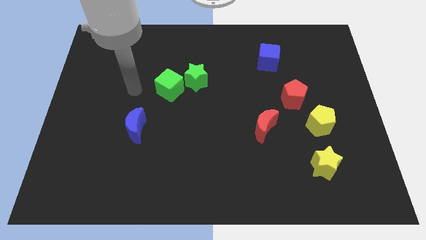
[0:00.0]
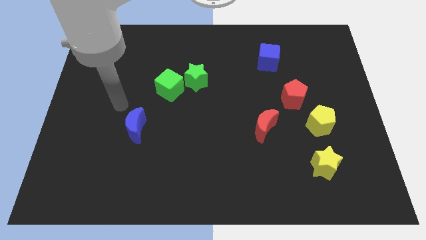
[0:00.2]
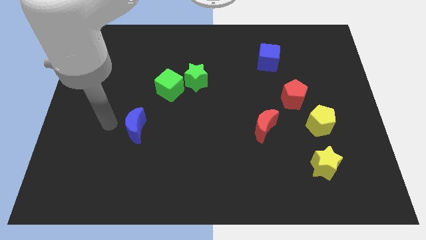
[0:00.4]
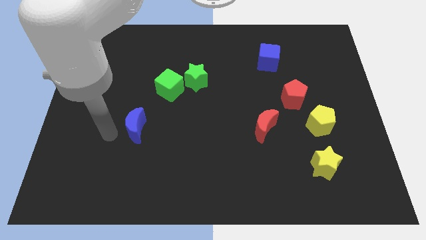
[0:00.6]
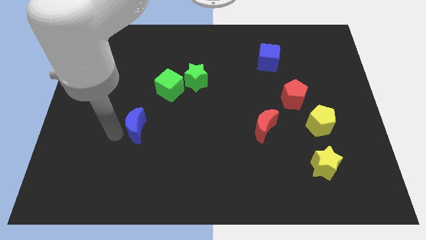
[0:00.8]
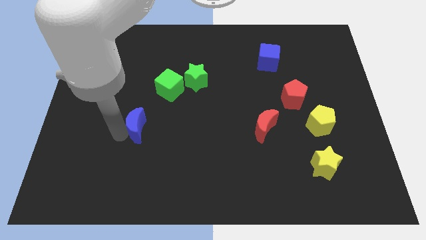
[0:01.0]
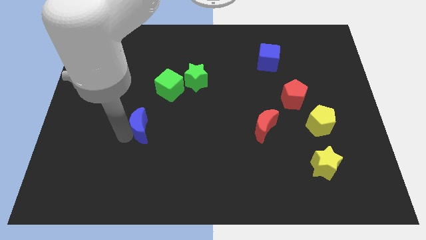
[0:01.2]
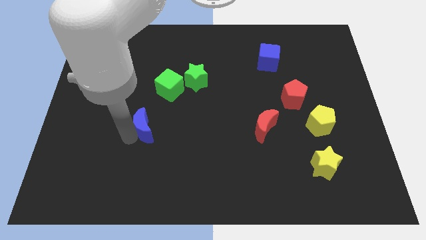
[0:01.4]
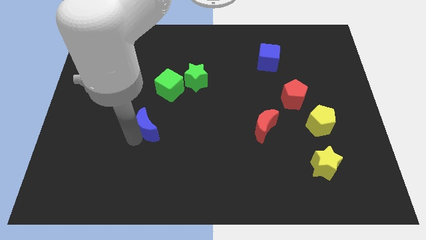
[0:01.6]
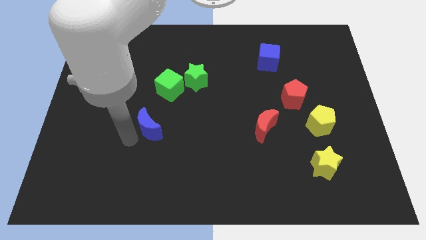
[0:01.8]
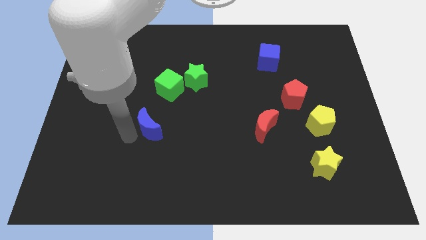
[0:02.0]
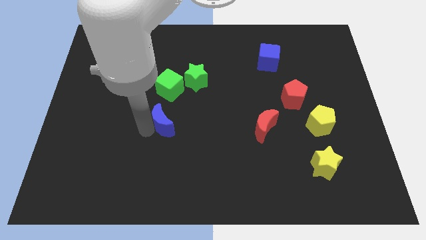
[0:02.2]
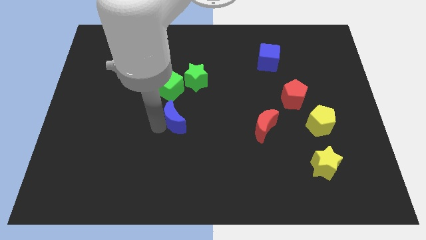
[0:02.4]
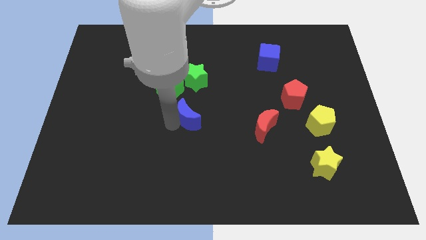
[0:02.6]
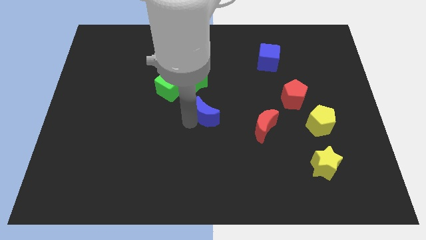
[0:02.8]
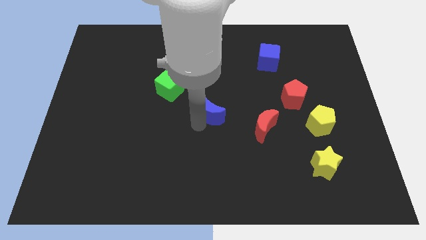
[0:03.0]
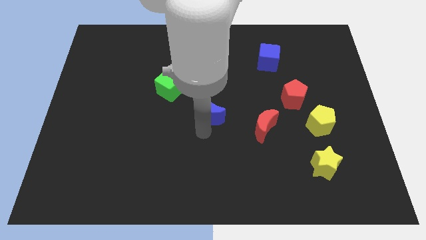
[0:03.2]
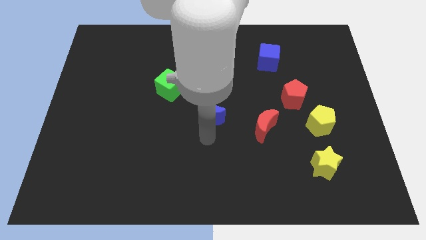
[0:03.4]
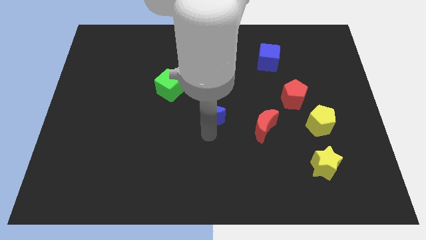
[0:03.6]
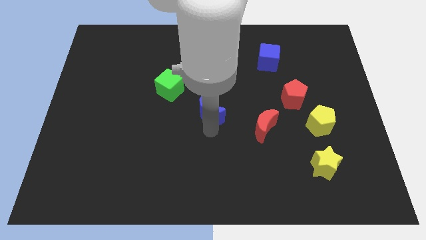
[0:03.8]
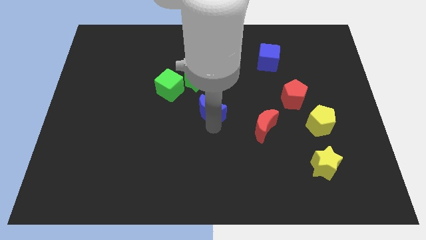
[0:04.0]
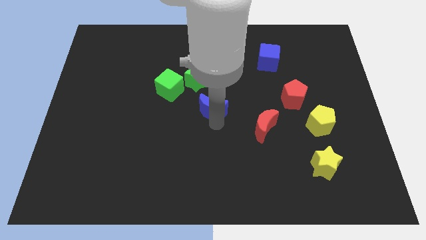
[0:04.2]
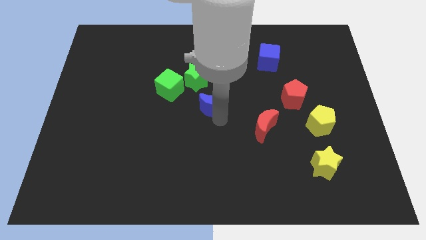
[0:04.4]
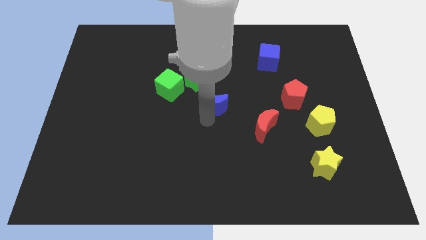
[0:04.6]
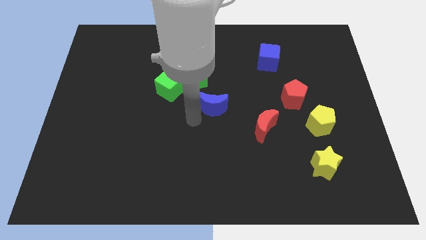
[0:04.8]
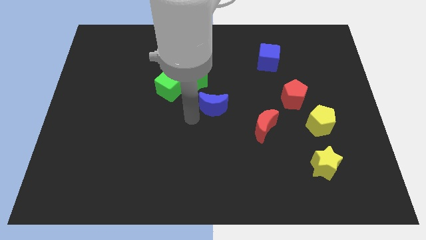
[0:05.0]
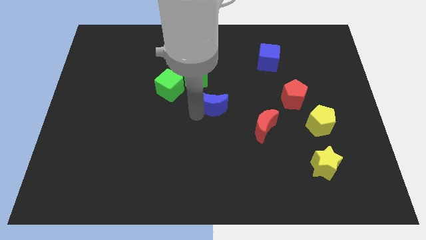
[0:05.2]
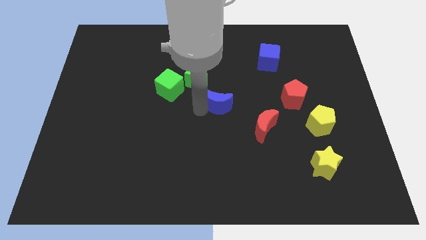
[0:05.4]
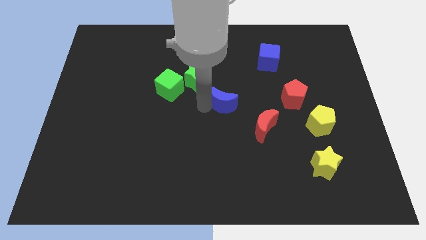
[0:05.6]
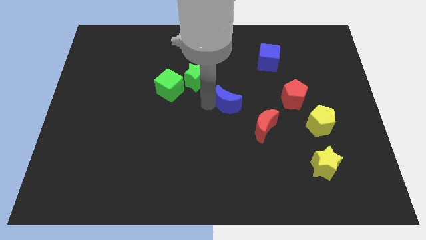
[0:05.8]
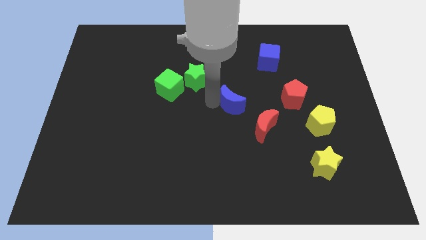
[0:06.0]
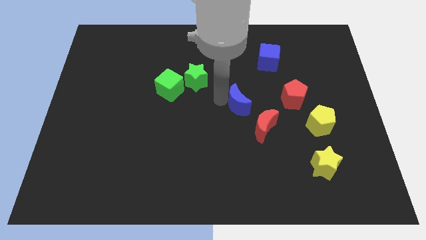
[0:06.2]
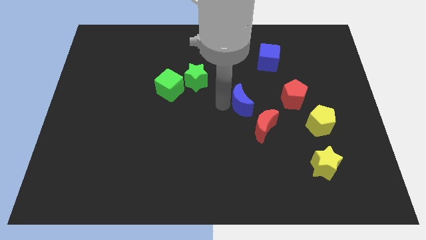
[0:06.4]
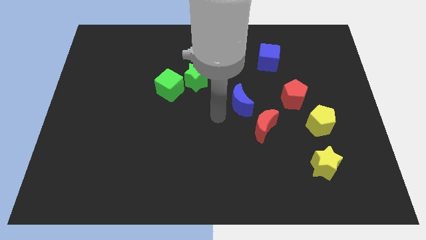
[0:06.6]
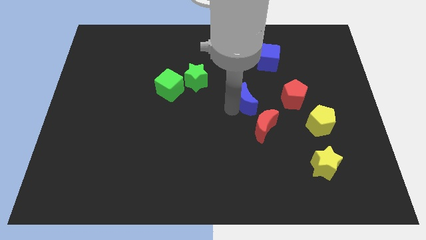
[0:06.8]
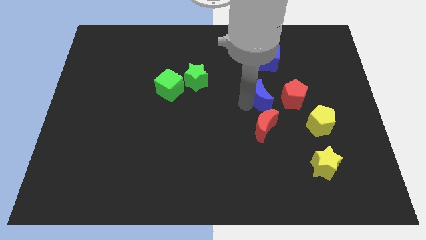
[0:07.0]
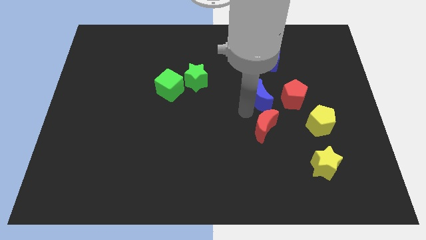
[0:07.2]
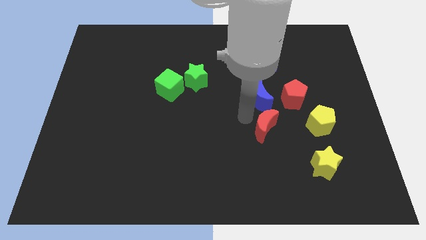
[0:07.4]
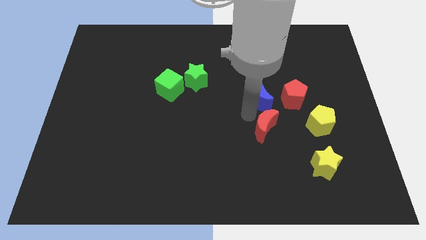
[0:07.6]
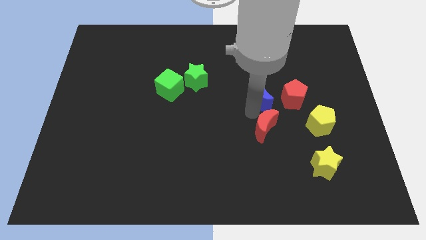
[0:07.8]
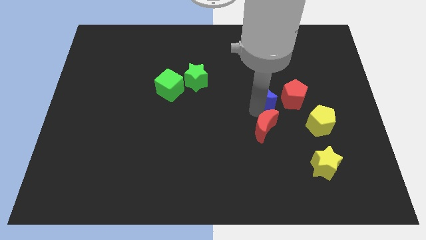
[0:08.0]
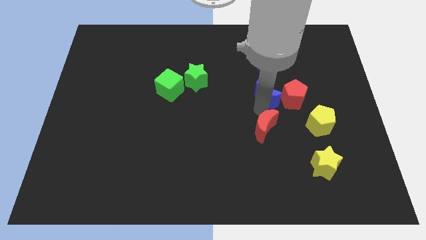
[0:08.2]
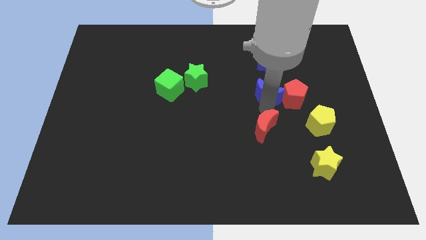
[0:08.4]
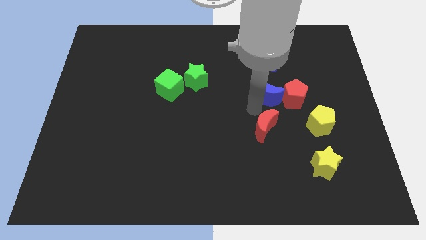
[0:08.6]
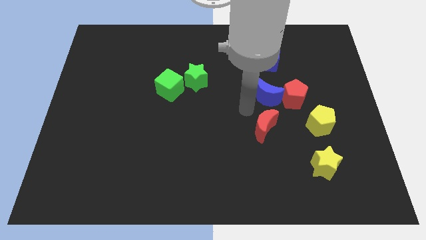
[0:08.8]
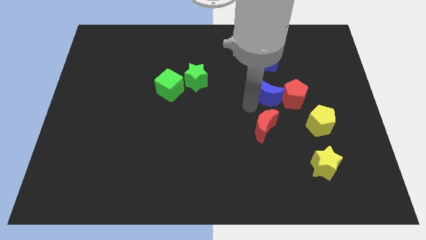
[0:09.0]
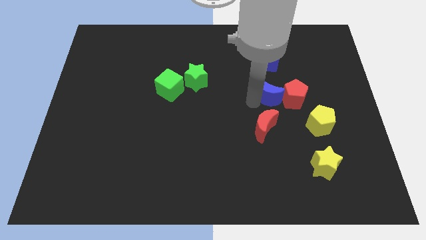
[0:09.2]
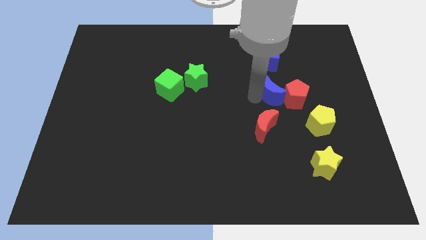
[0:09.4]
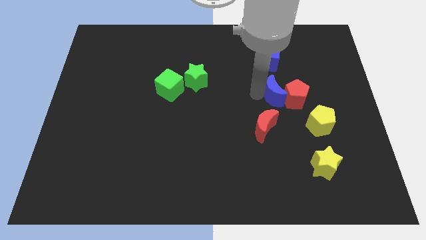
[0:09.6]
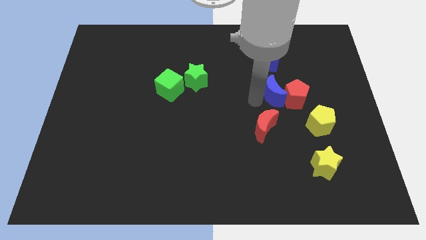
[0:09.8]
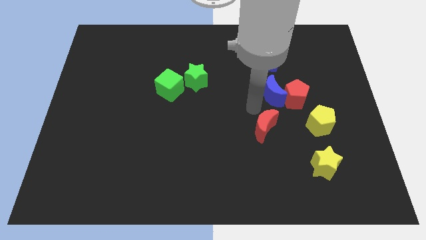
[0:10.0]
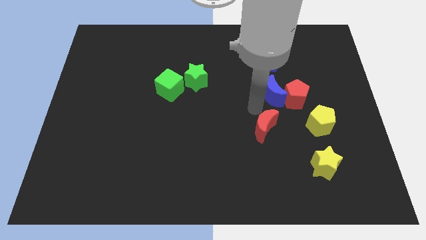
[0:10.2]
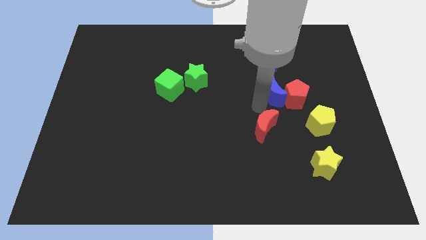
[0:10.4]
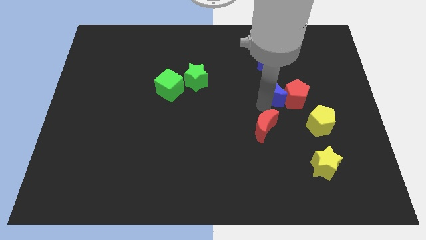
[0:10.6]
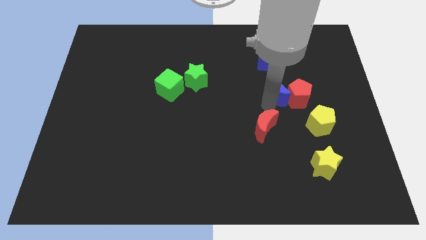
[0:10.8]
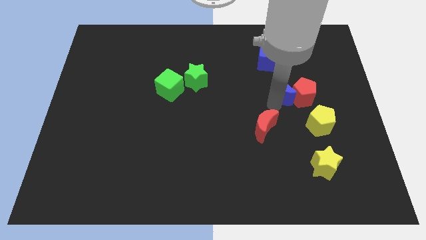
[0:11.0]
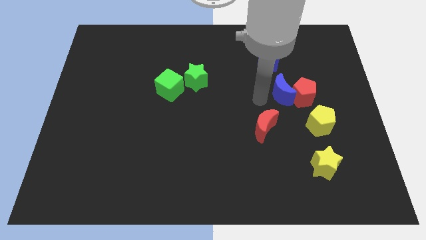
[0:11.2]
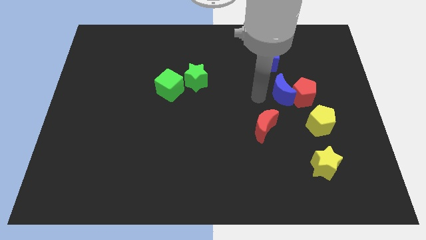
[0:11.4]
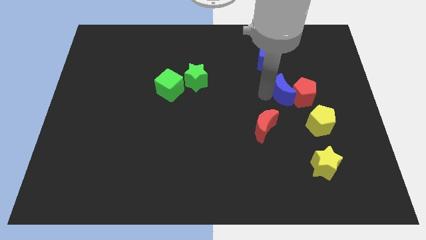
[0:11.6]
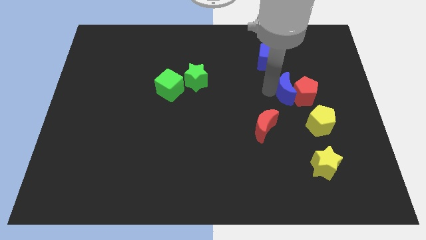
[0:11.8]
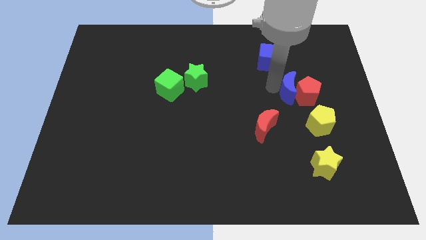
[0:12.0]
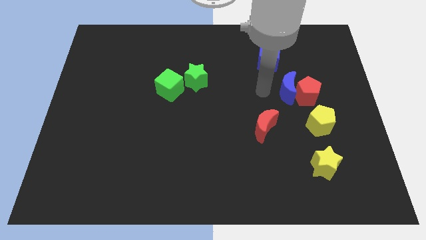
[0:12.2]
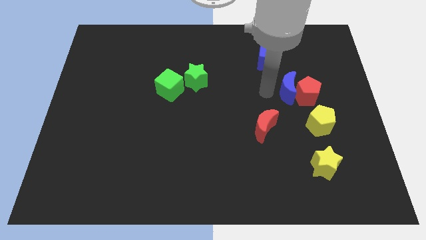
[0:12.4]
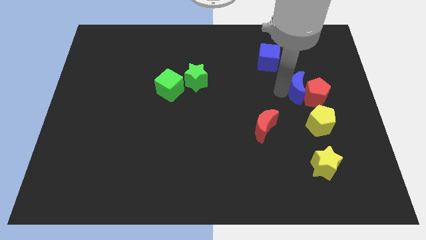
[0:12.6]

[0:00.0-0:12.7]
push the blue moon above the yellow pentagon
